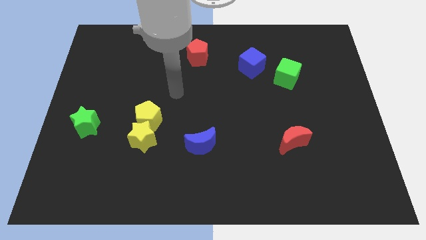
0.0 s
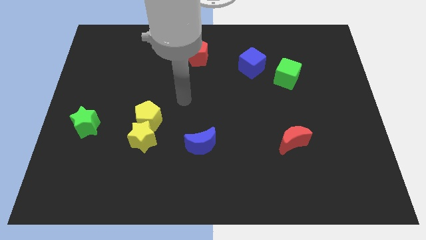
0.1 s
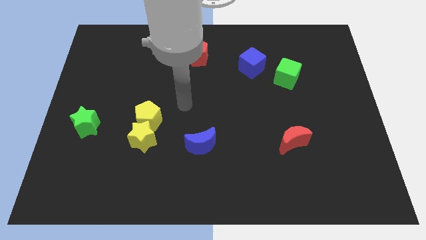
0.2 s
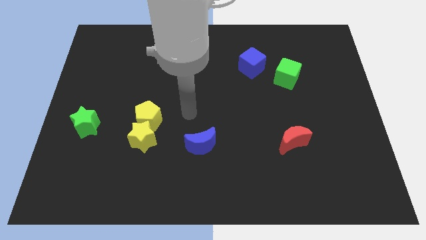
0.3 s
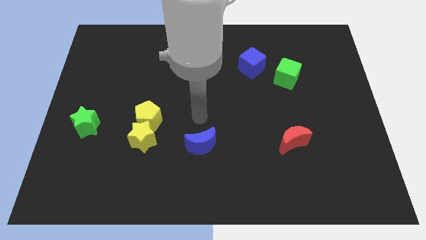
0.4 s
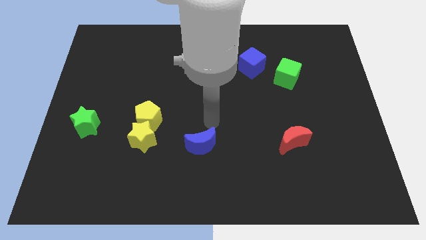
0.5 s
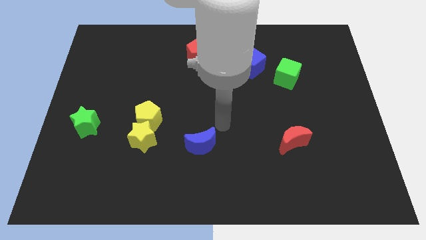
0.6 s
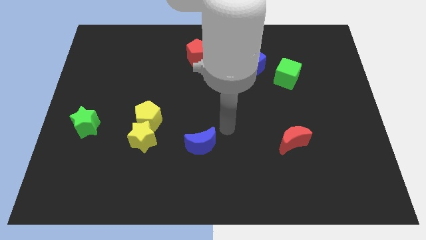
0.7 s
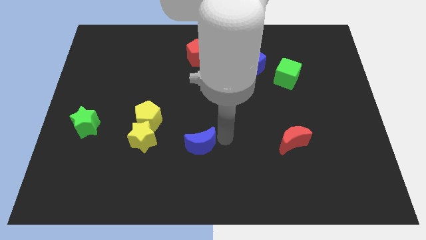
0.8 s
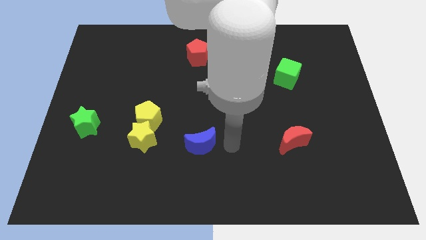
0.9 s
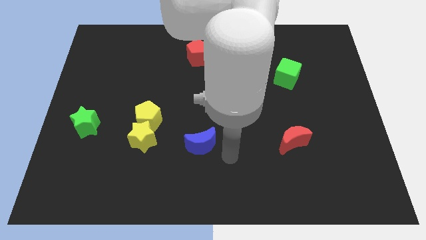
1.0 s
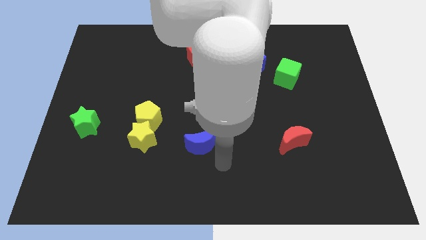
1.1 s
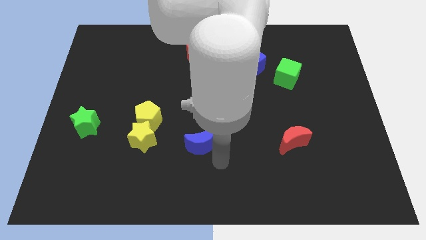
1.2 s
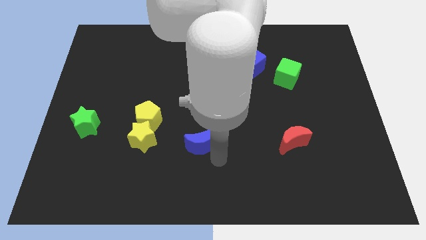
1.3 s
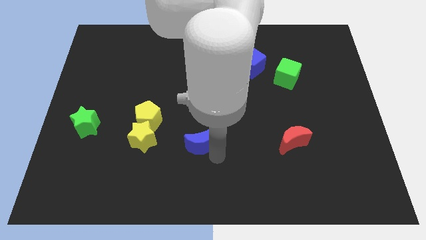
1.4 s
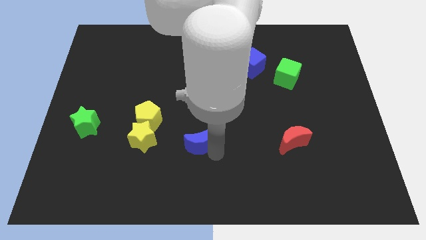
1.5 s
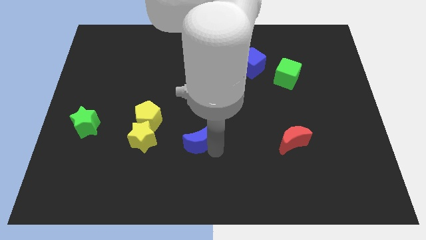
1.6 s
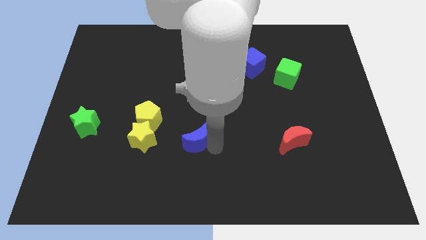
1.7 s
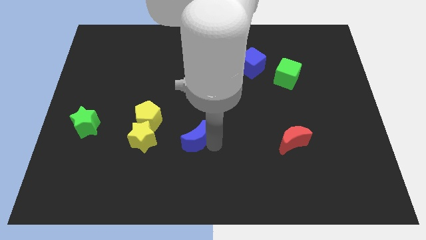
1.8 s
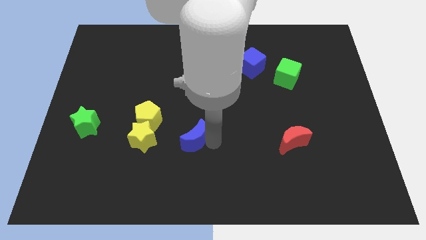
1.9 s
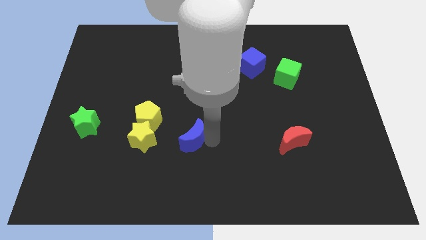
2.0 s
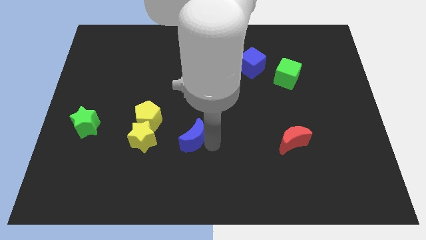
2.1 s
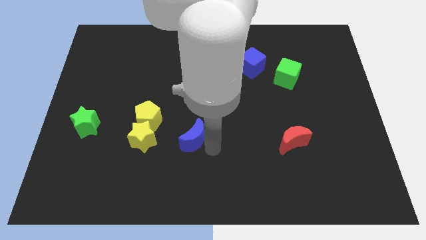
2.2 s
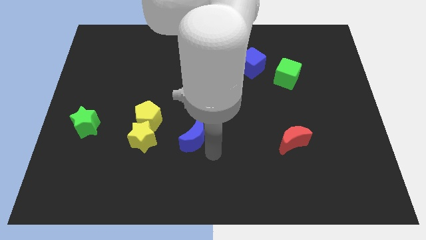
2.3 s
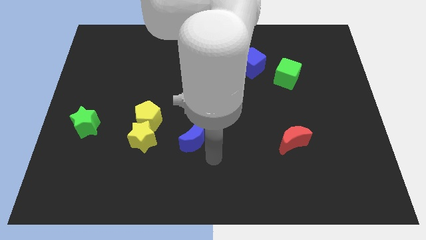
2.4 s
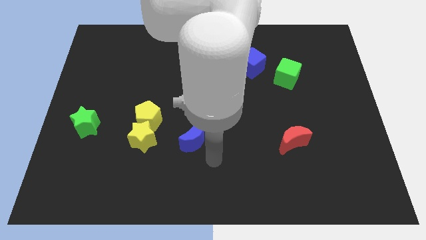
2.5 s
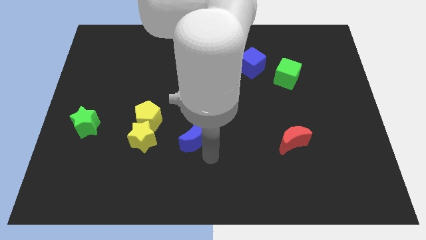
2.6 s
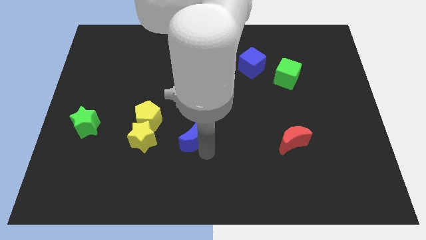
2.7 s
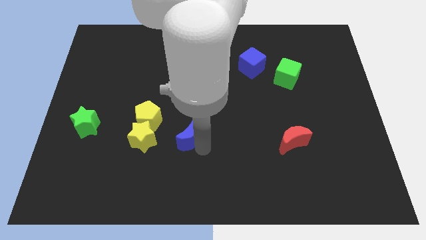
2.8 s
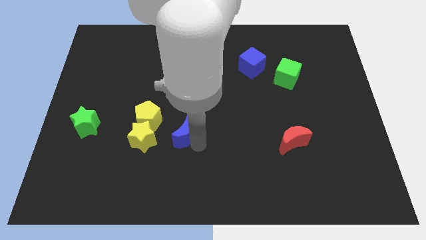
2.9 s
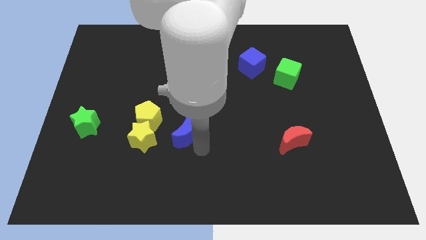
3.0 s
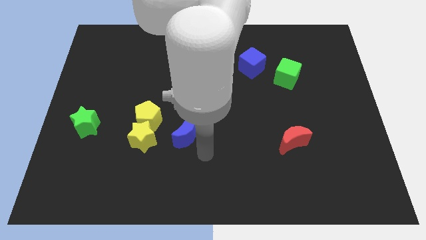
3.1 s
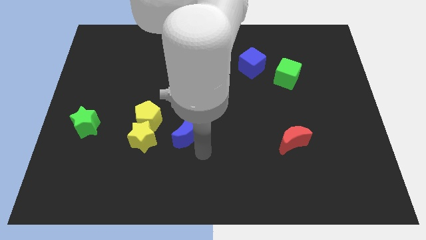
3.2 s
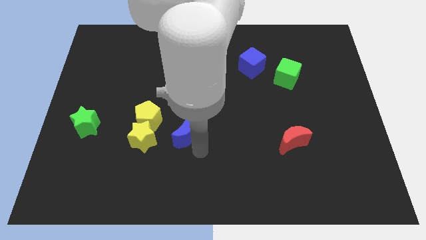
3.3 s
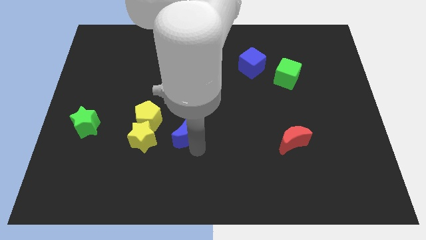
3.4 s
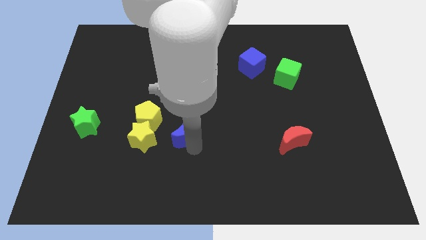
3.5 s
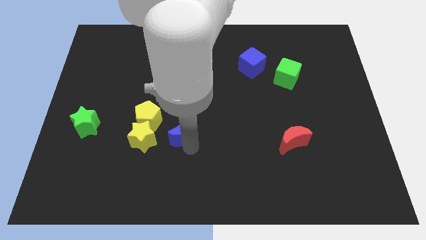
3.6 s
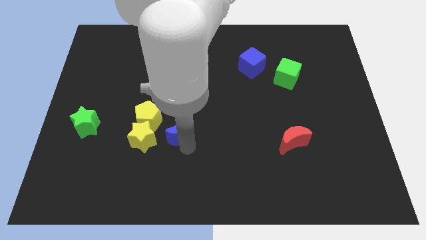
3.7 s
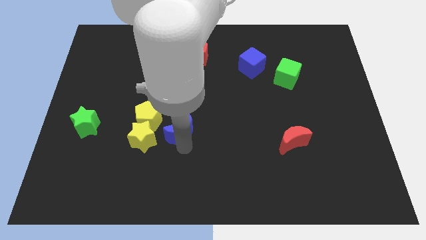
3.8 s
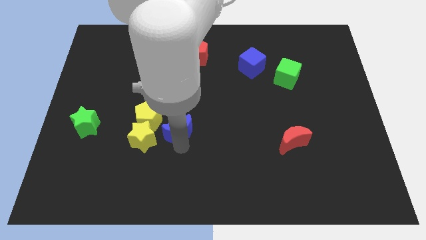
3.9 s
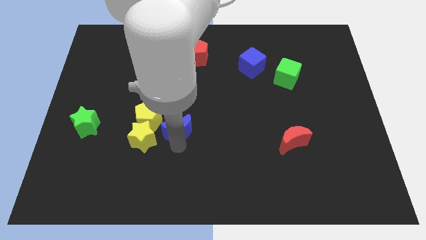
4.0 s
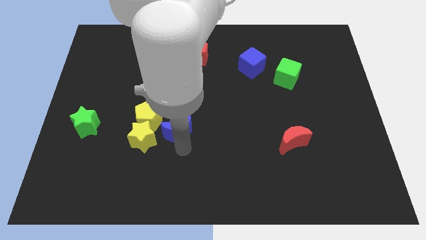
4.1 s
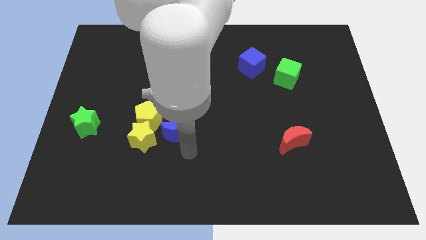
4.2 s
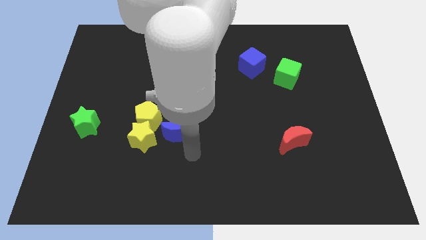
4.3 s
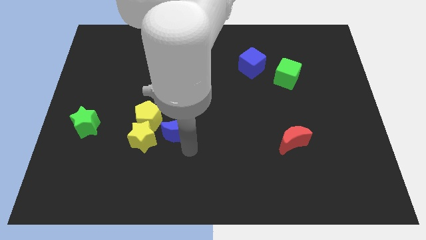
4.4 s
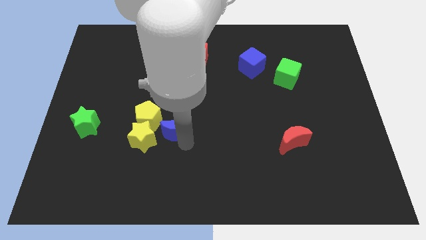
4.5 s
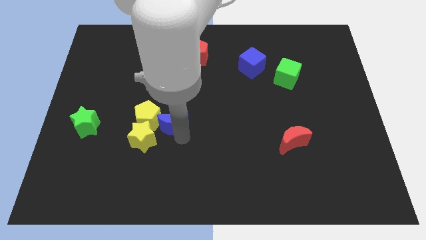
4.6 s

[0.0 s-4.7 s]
move the blue moon upwards and to the left diagonally a bit

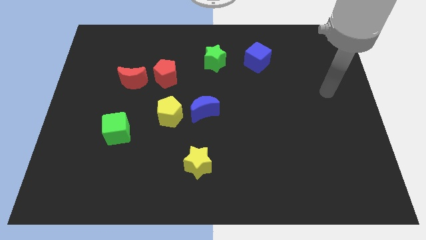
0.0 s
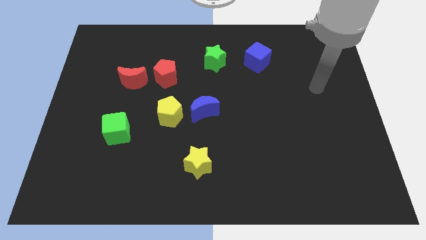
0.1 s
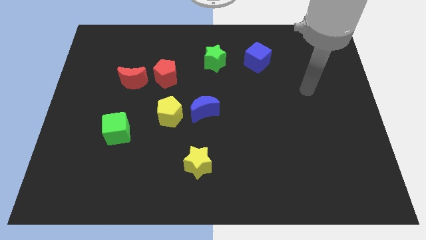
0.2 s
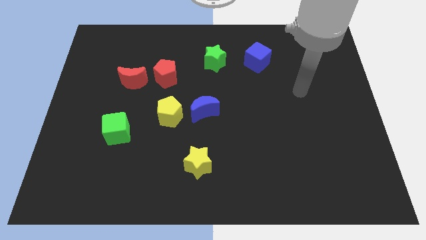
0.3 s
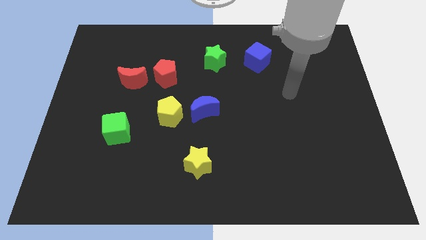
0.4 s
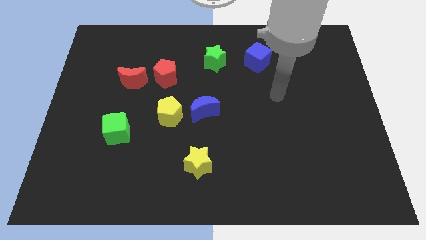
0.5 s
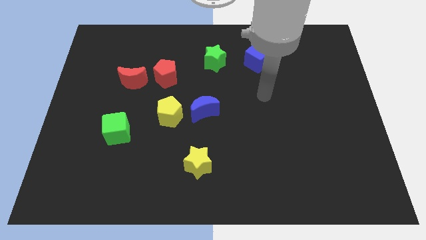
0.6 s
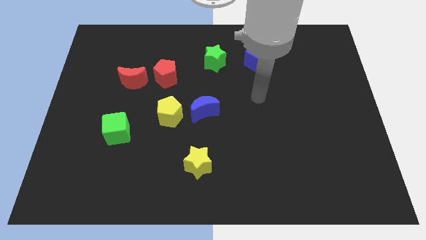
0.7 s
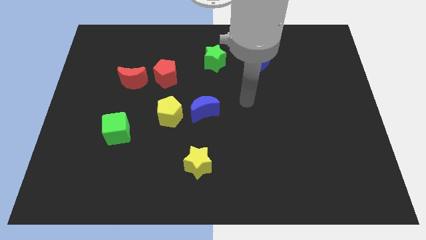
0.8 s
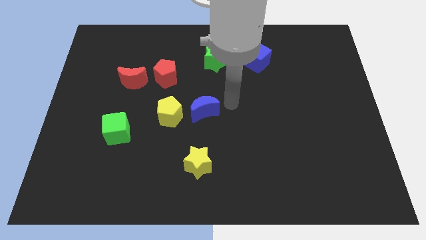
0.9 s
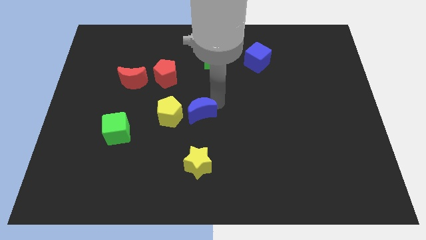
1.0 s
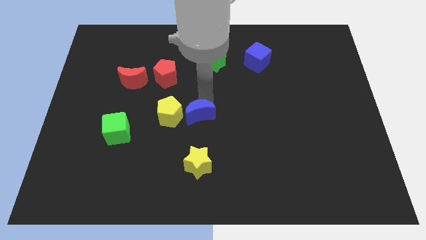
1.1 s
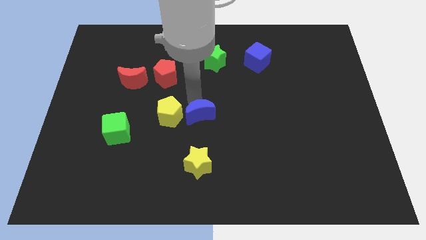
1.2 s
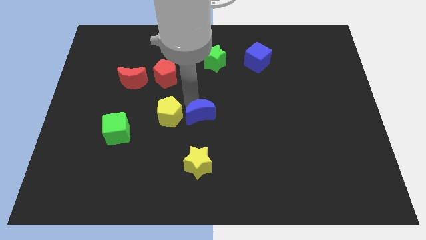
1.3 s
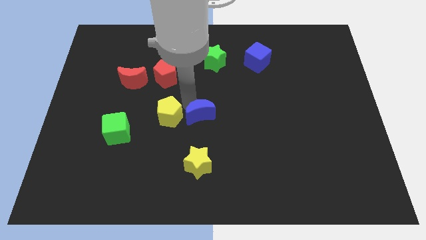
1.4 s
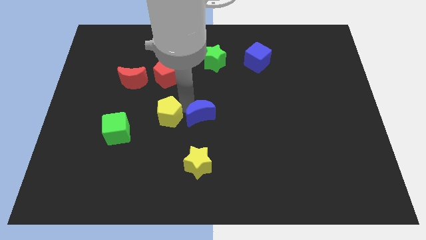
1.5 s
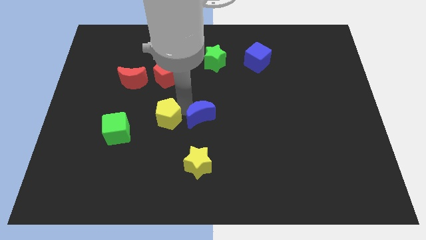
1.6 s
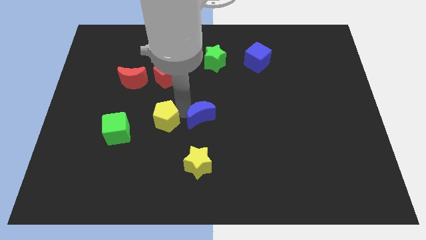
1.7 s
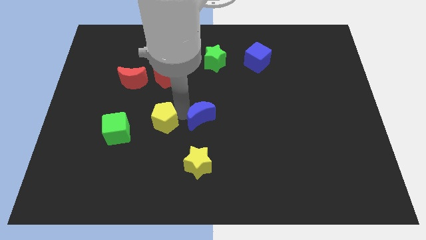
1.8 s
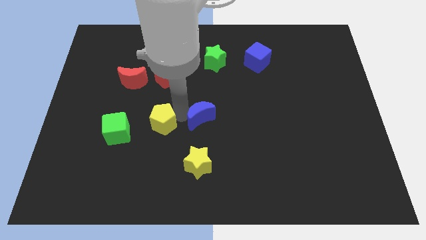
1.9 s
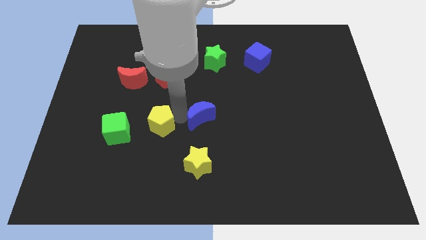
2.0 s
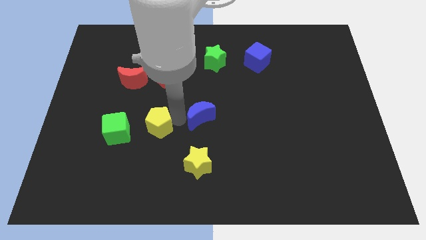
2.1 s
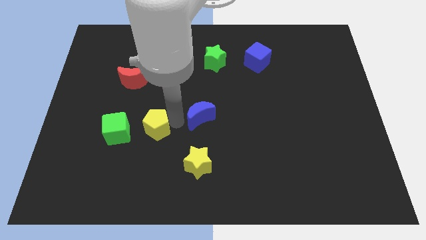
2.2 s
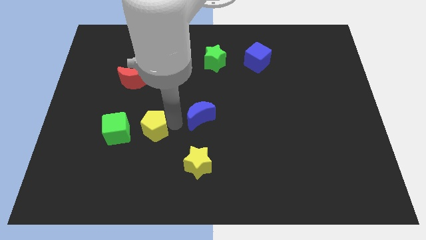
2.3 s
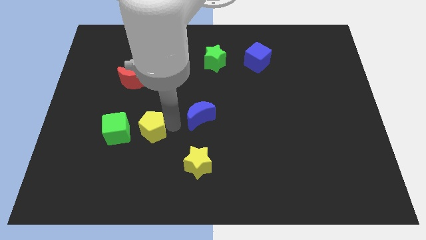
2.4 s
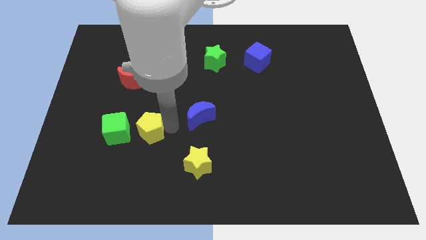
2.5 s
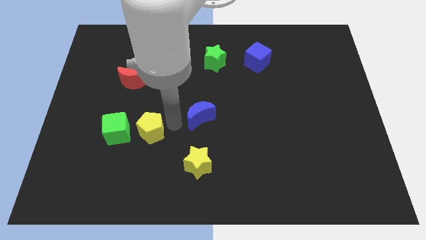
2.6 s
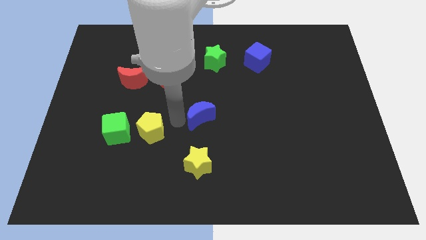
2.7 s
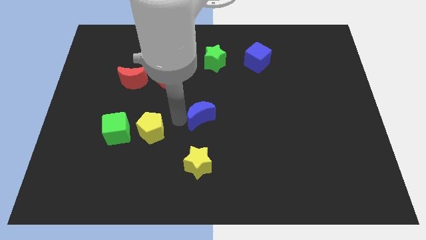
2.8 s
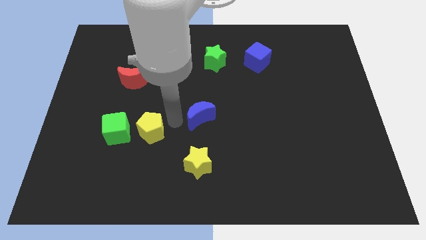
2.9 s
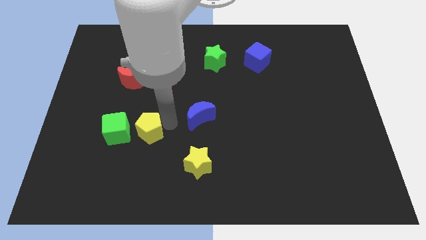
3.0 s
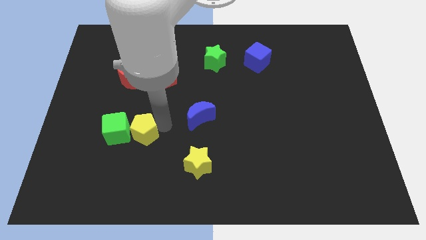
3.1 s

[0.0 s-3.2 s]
push the yellow pentagon a little downwards and left
